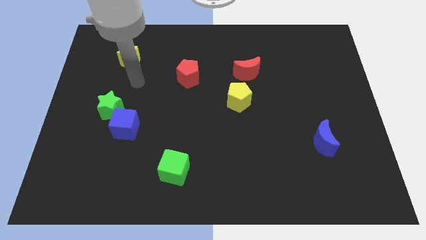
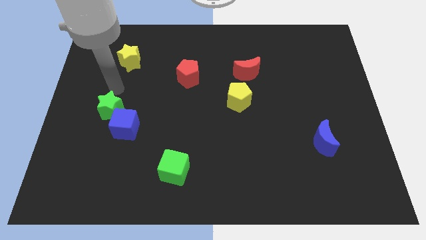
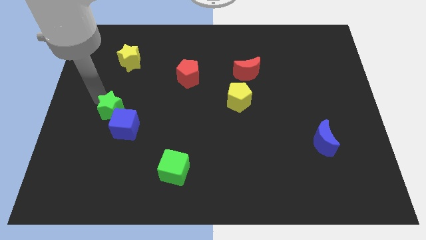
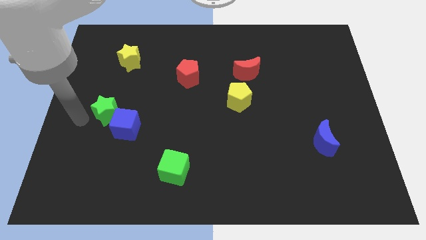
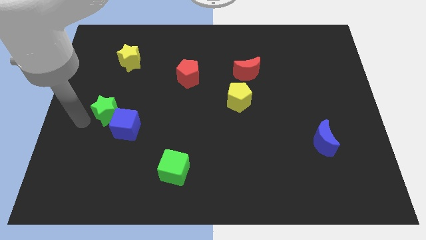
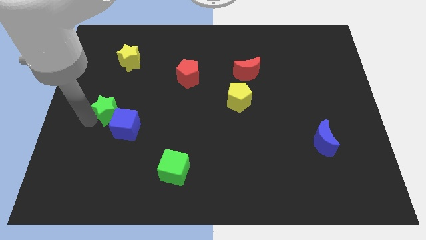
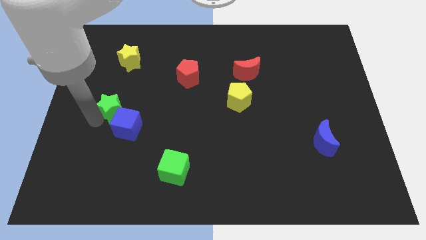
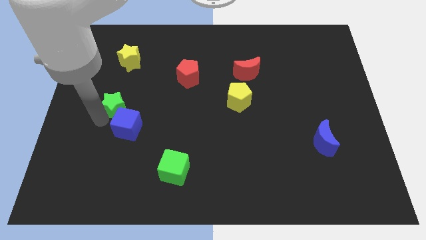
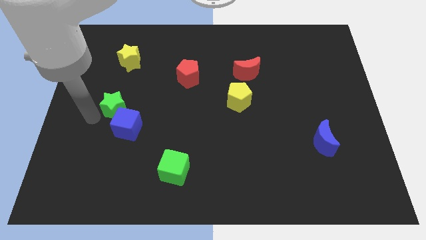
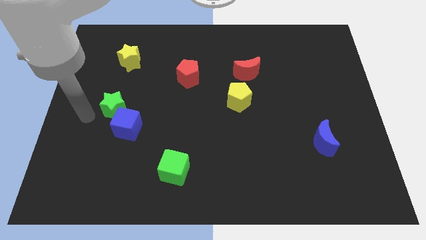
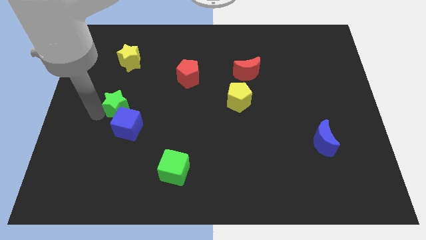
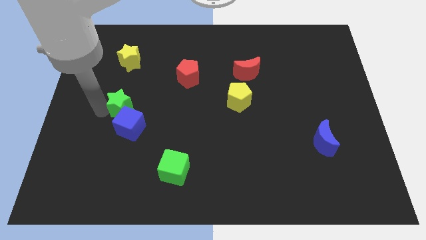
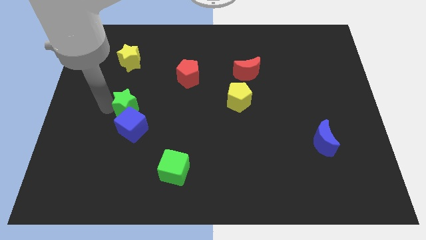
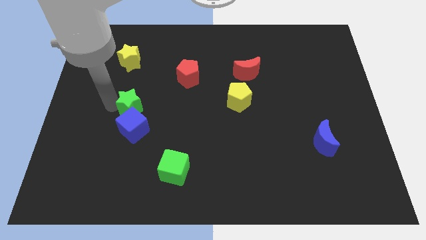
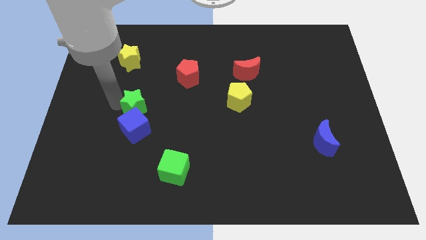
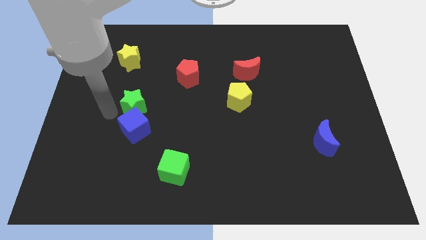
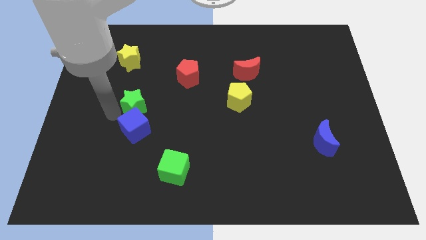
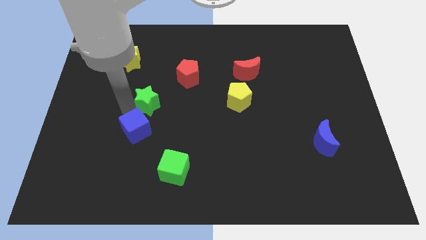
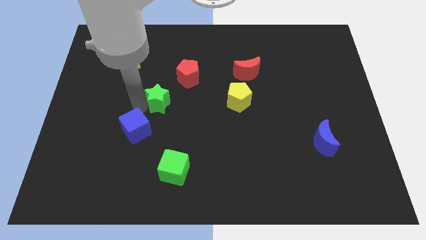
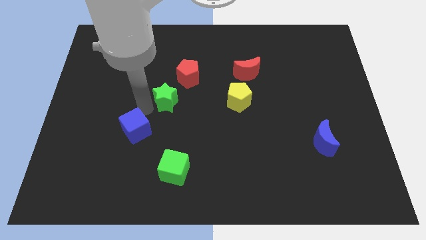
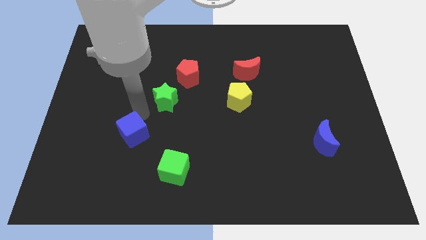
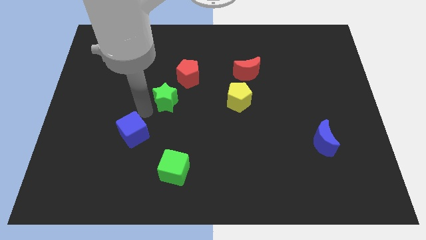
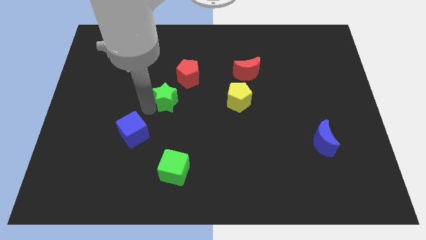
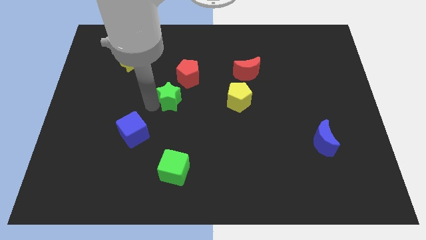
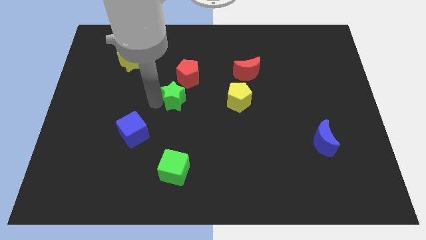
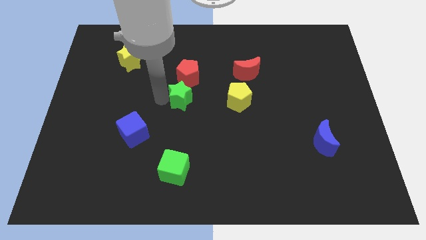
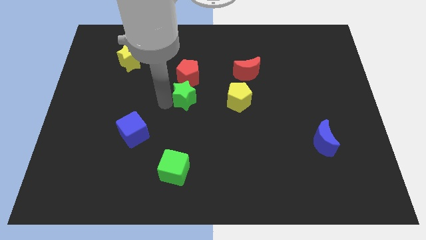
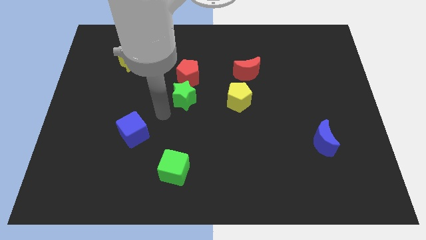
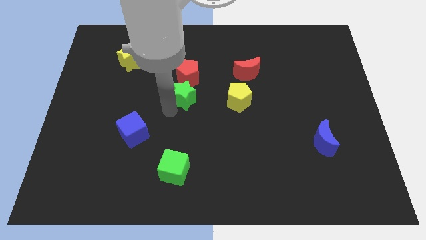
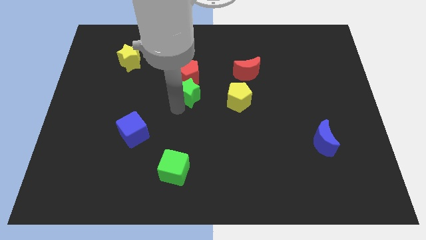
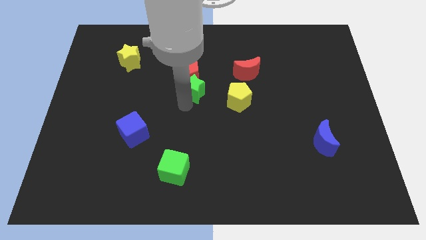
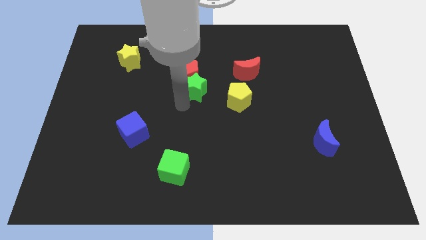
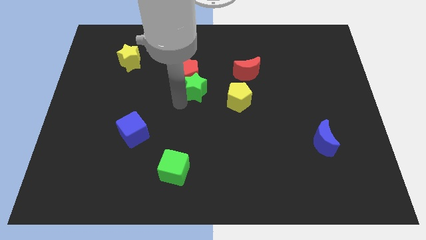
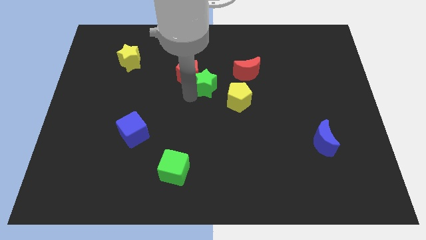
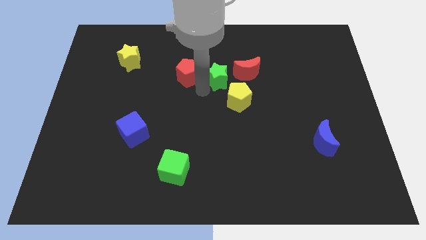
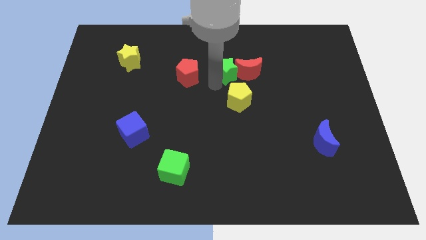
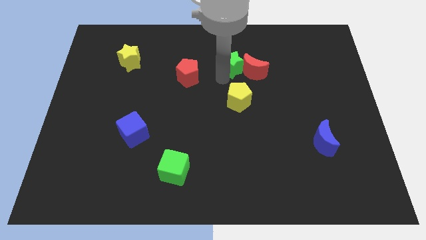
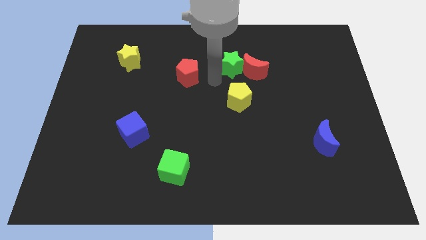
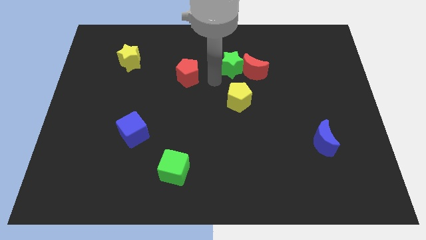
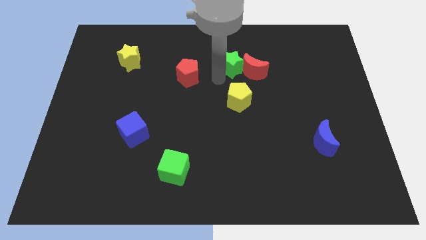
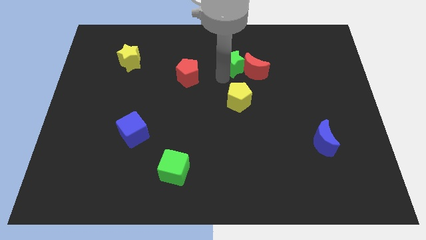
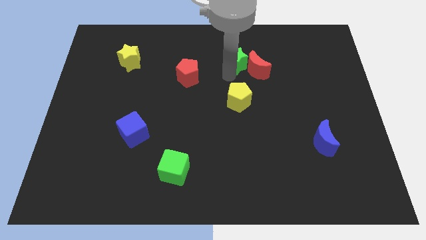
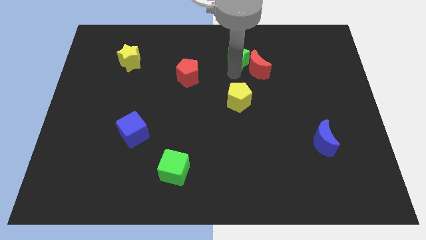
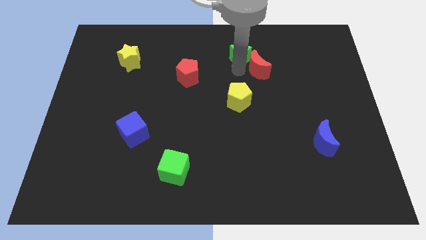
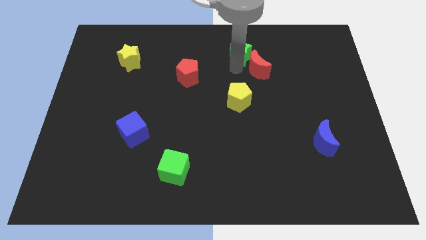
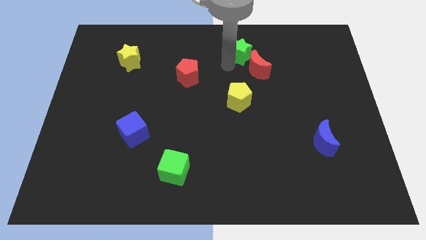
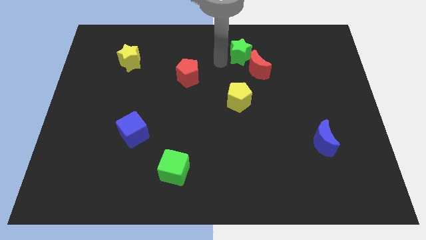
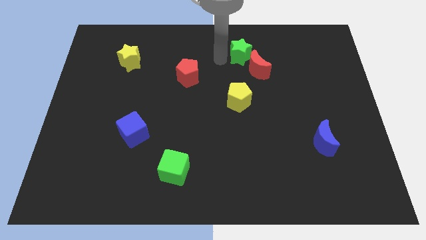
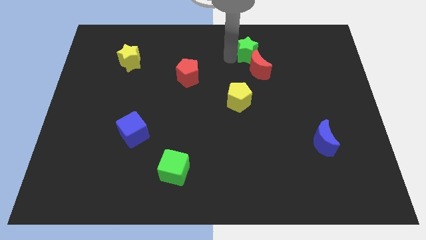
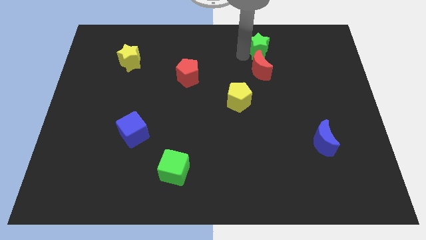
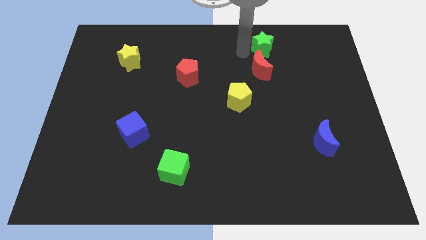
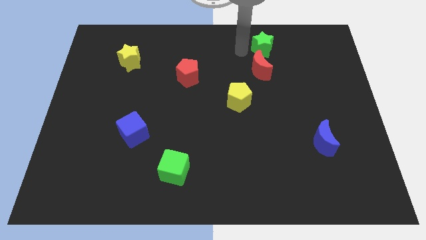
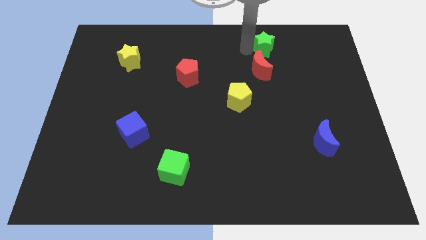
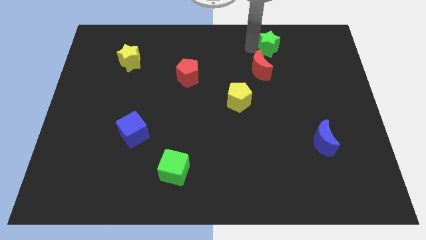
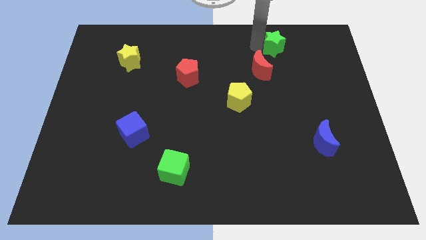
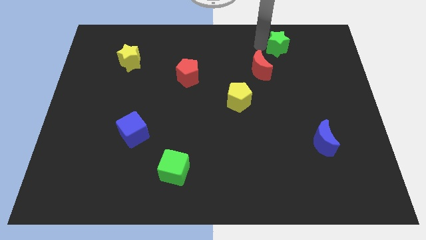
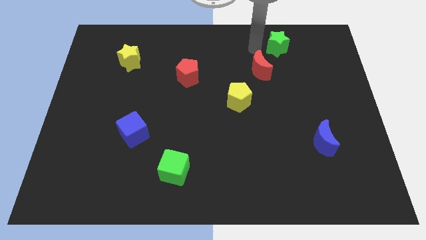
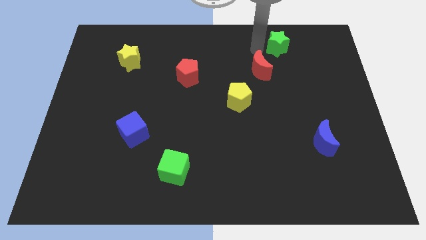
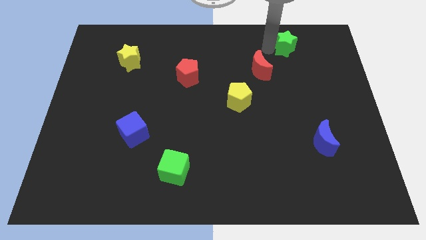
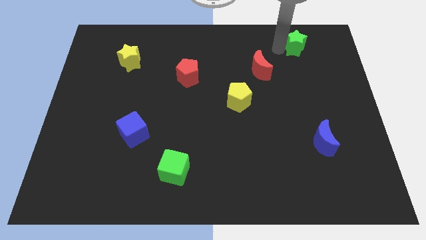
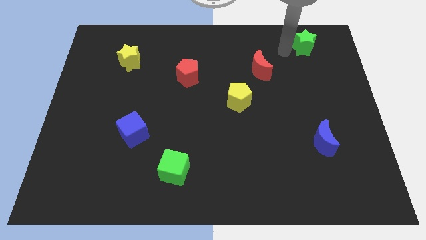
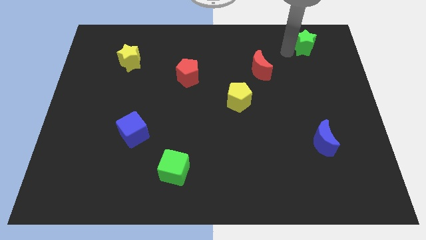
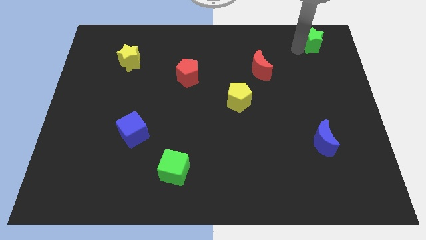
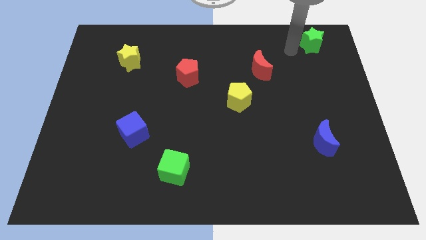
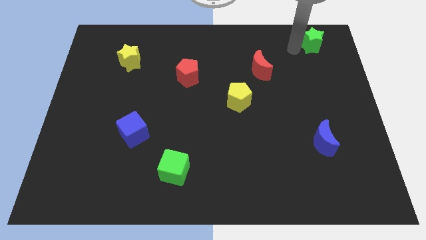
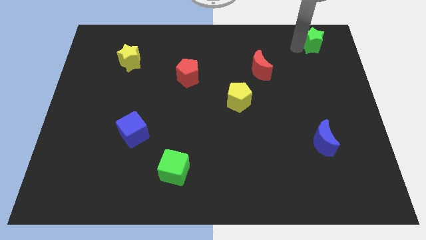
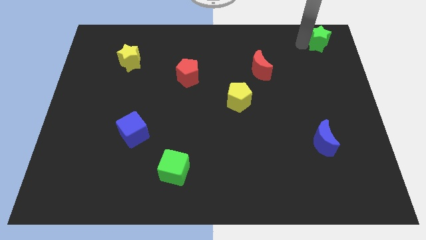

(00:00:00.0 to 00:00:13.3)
push the green star to the top right corner
